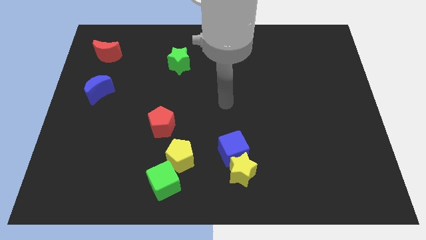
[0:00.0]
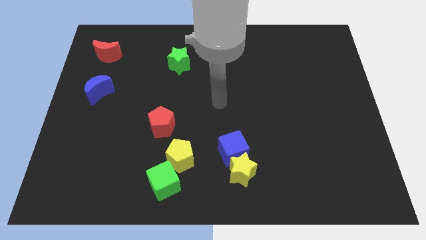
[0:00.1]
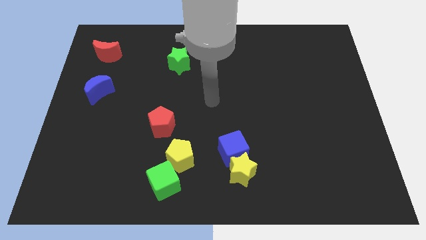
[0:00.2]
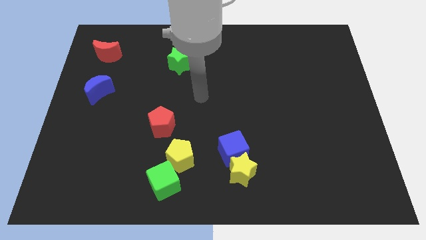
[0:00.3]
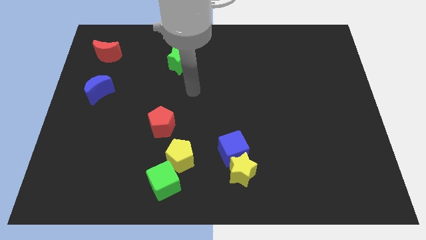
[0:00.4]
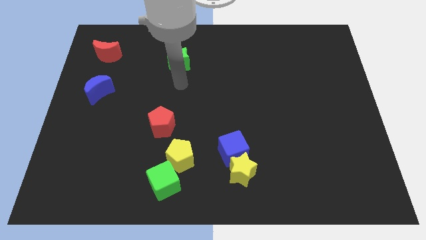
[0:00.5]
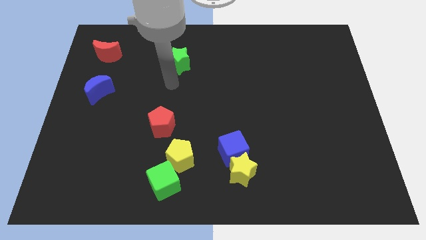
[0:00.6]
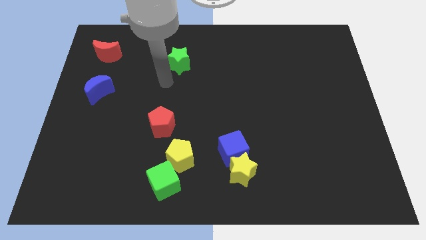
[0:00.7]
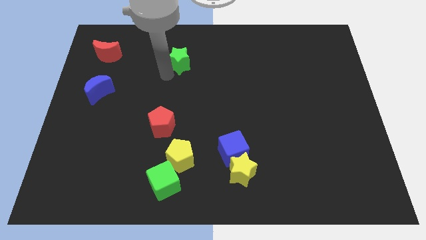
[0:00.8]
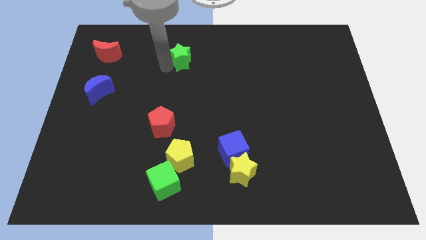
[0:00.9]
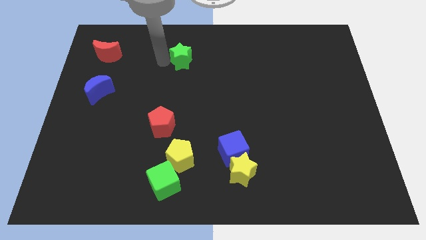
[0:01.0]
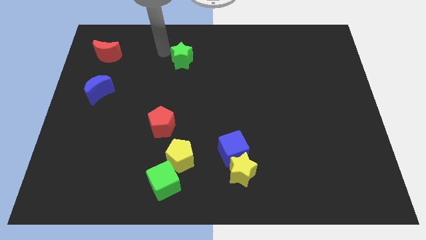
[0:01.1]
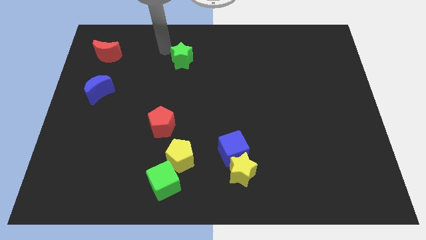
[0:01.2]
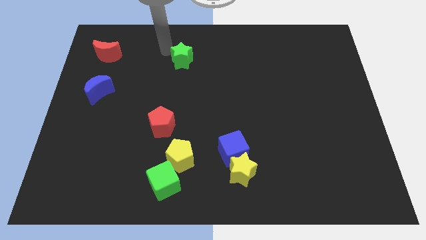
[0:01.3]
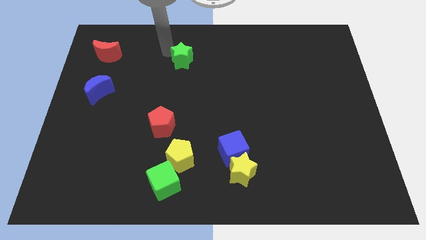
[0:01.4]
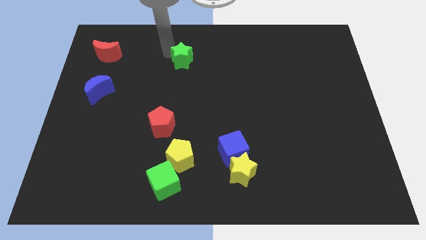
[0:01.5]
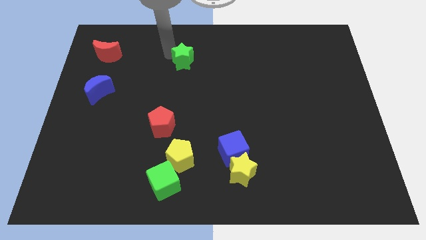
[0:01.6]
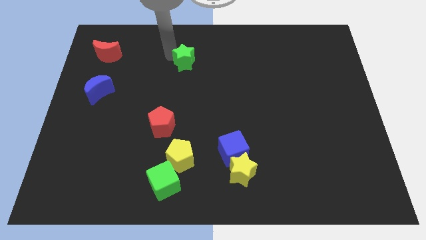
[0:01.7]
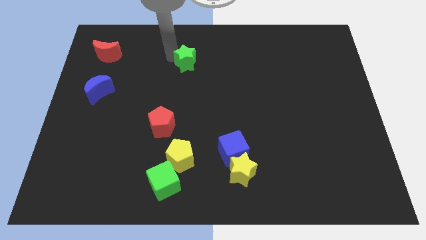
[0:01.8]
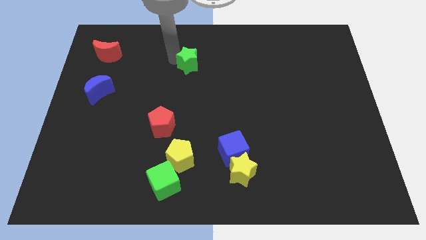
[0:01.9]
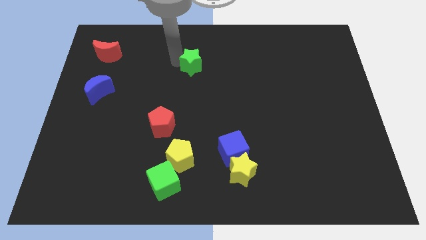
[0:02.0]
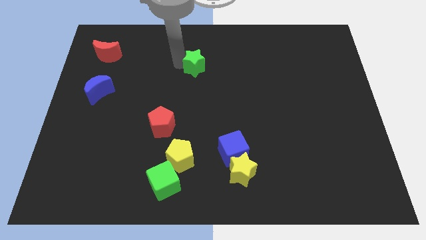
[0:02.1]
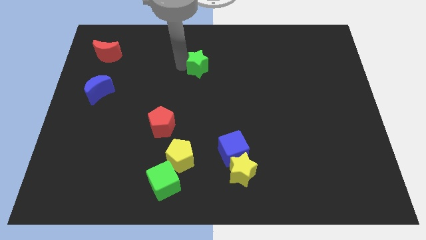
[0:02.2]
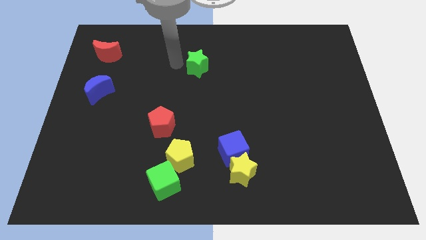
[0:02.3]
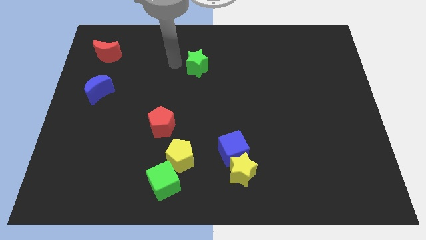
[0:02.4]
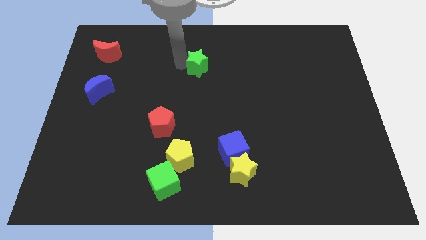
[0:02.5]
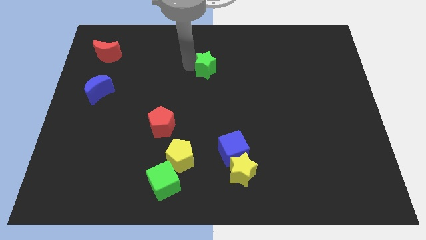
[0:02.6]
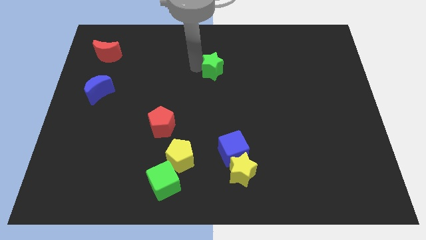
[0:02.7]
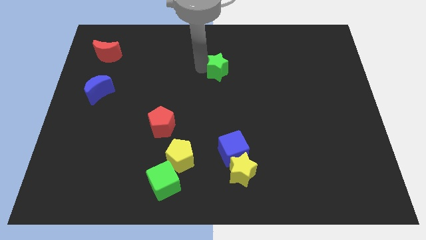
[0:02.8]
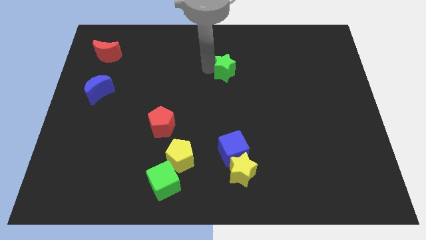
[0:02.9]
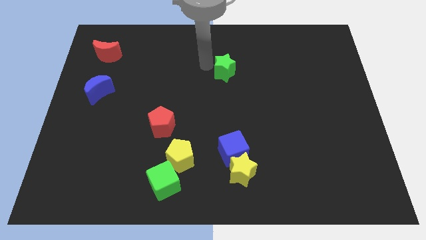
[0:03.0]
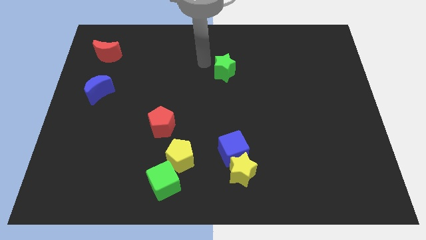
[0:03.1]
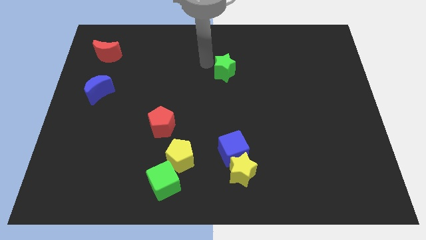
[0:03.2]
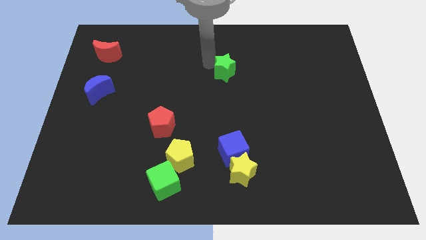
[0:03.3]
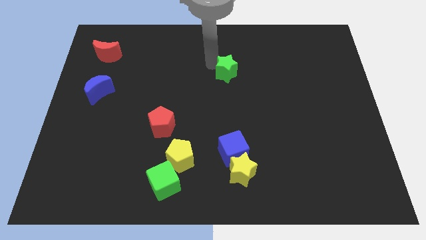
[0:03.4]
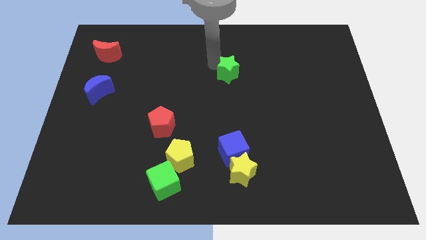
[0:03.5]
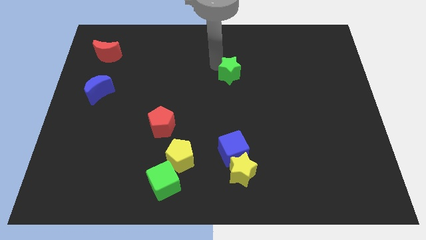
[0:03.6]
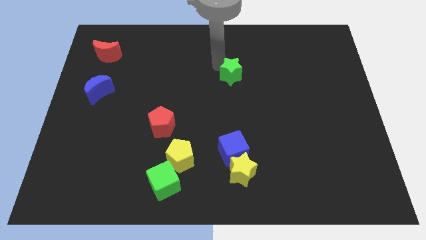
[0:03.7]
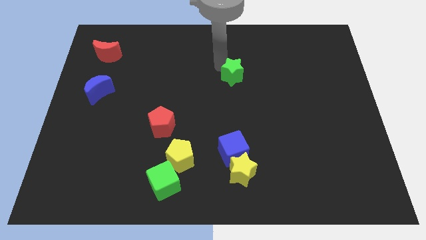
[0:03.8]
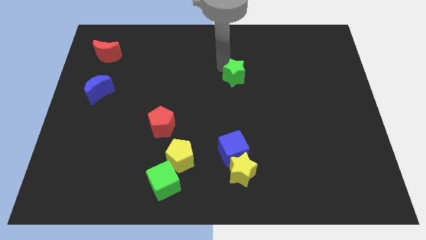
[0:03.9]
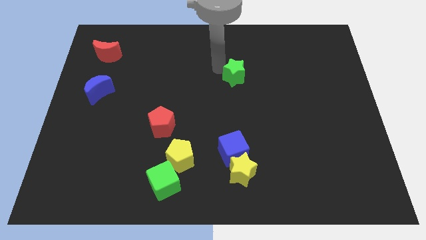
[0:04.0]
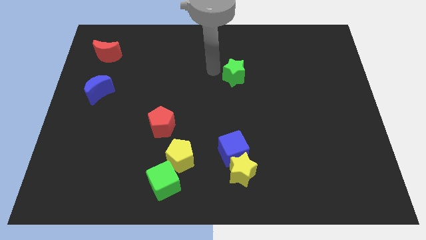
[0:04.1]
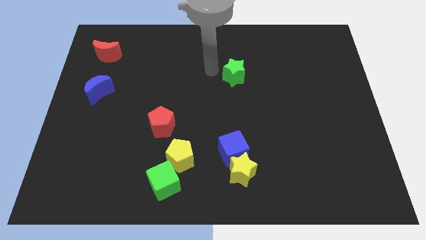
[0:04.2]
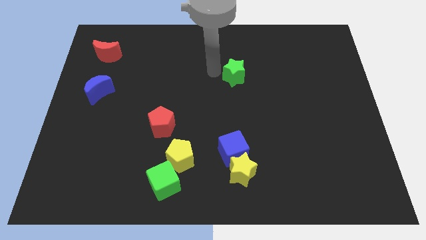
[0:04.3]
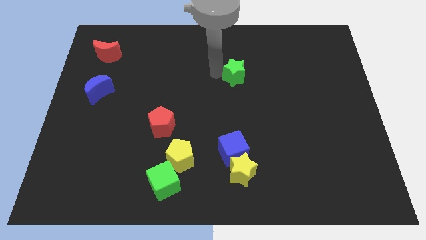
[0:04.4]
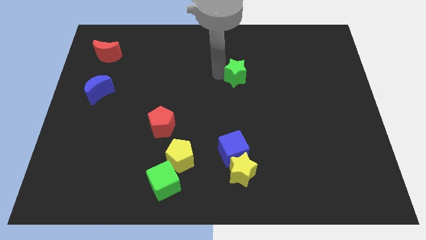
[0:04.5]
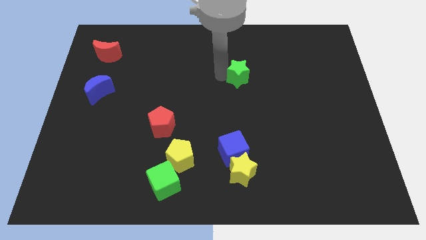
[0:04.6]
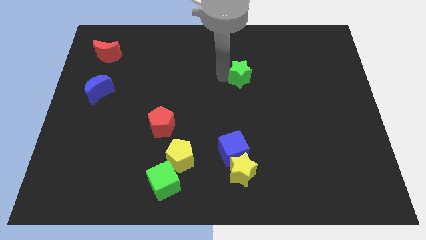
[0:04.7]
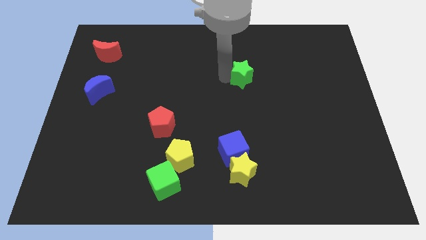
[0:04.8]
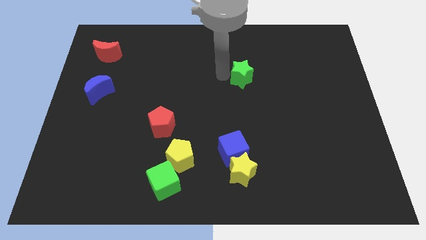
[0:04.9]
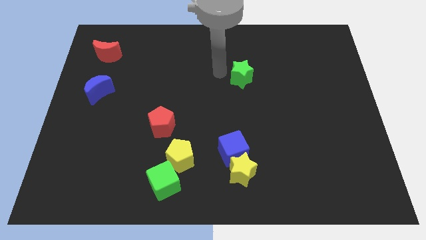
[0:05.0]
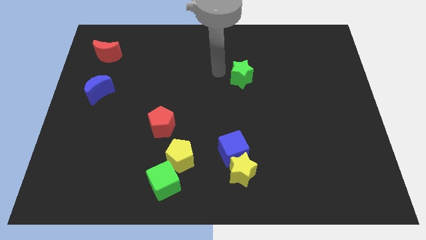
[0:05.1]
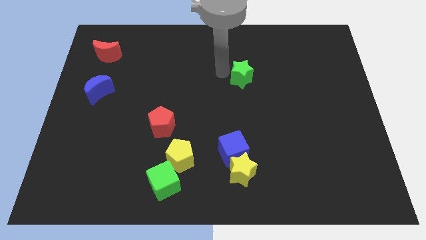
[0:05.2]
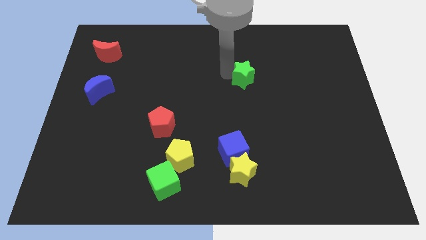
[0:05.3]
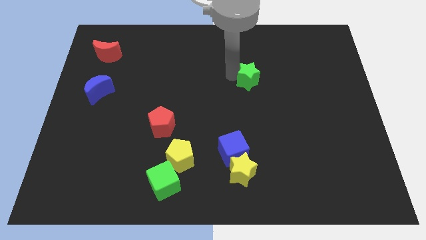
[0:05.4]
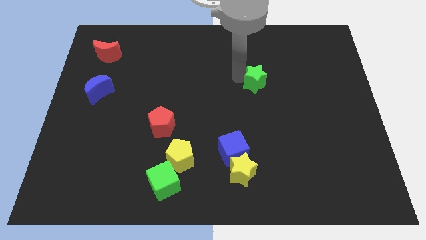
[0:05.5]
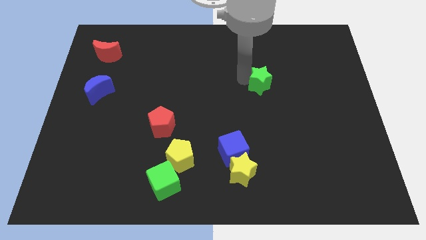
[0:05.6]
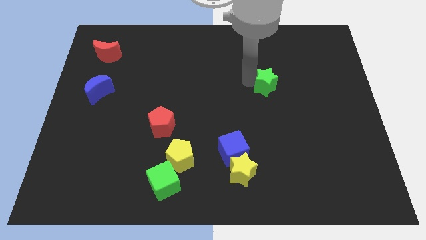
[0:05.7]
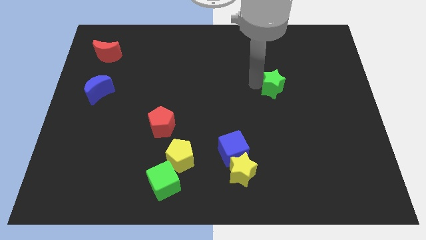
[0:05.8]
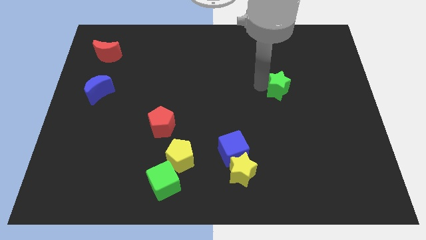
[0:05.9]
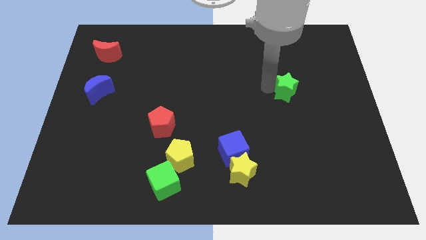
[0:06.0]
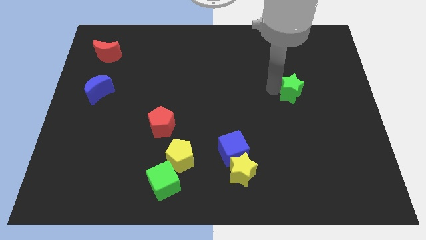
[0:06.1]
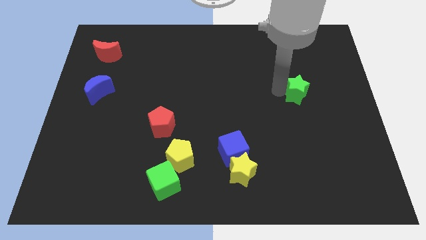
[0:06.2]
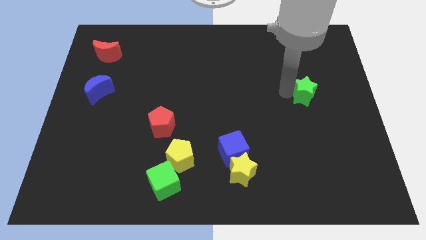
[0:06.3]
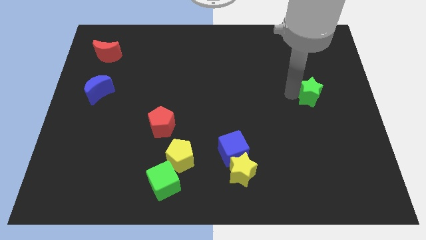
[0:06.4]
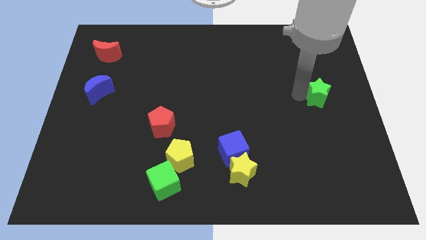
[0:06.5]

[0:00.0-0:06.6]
put the green star to the right side of the board

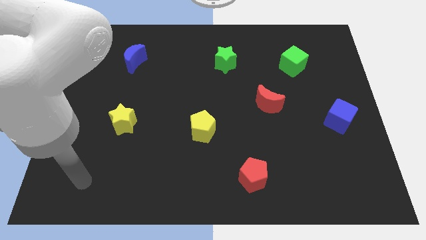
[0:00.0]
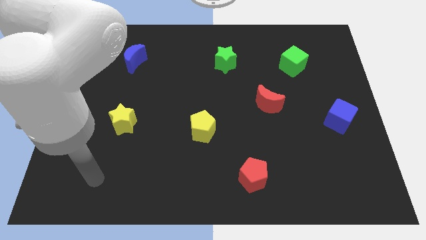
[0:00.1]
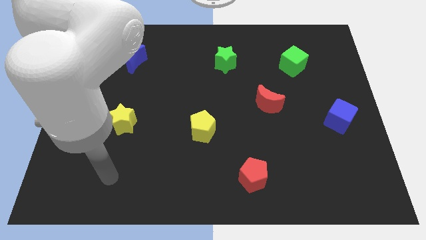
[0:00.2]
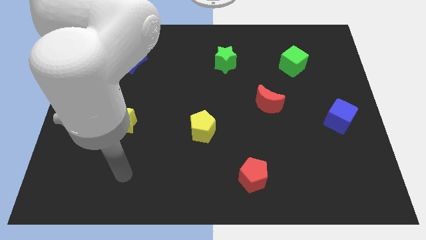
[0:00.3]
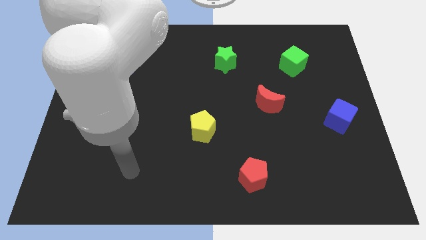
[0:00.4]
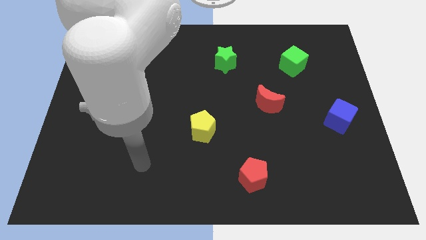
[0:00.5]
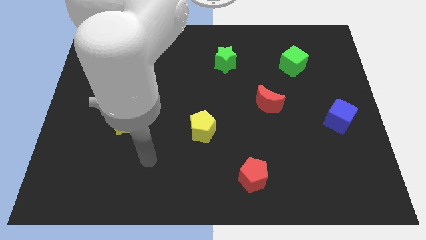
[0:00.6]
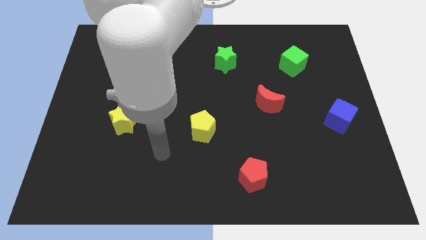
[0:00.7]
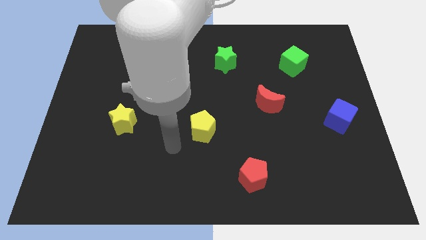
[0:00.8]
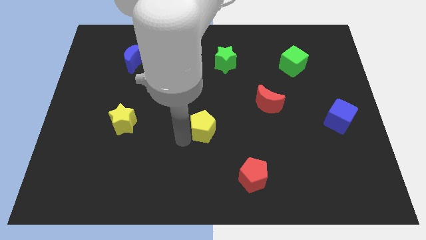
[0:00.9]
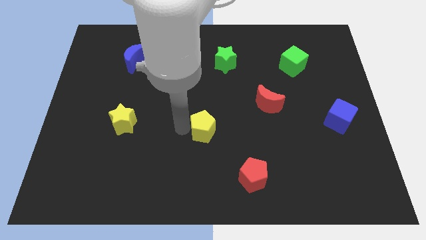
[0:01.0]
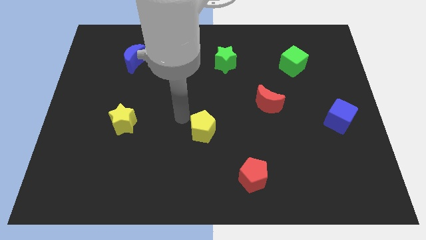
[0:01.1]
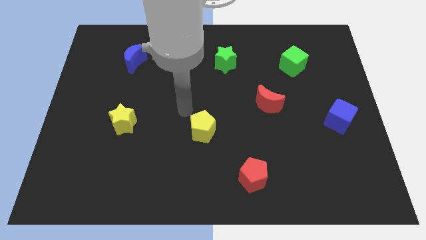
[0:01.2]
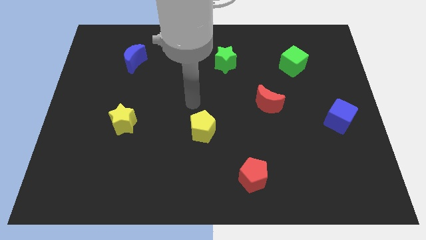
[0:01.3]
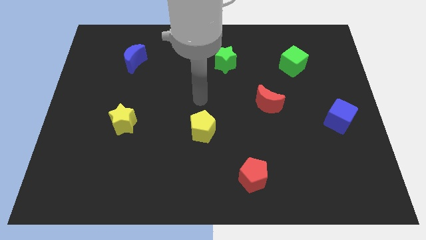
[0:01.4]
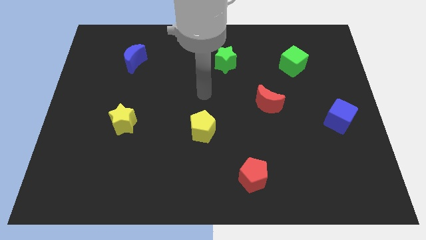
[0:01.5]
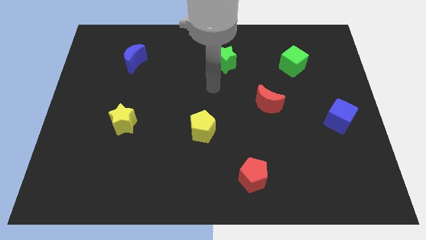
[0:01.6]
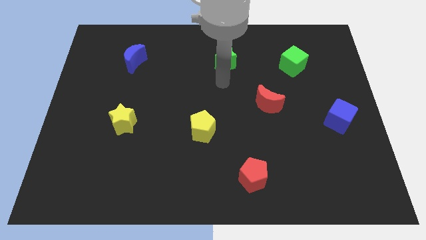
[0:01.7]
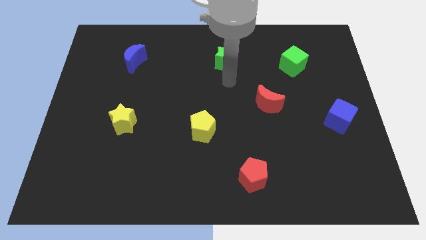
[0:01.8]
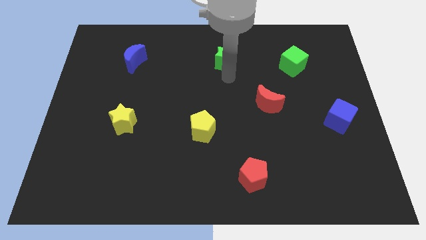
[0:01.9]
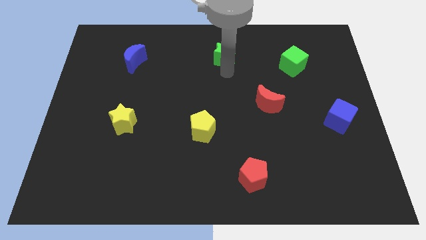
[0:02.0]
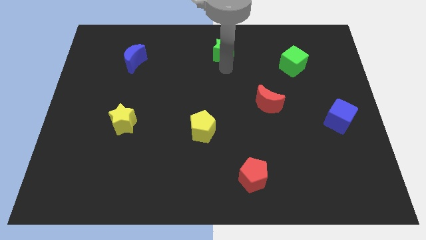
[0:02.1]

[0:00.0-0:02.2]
slide the green star to the top
